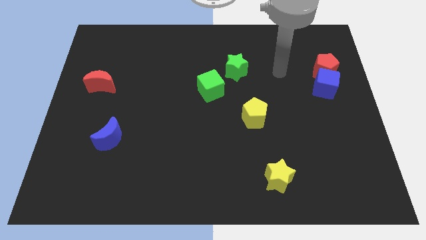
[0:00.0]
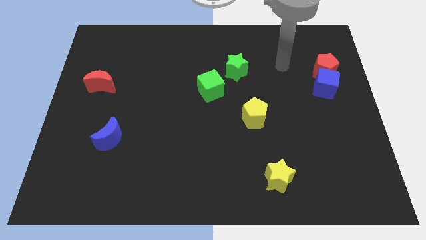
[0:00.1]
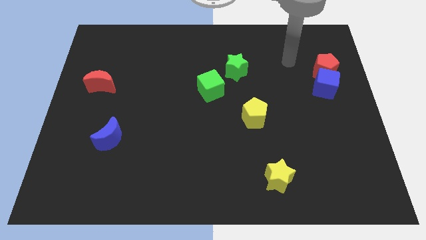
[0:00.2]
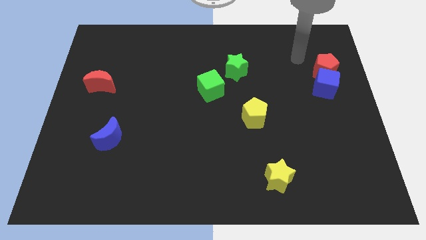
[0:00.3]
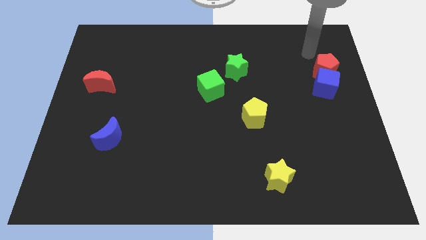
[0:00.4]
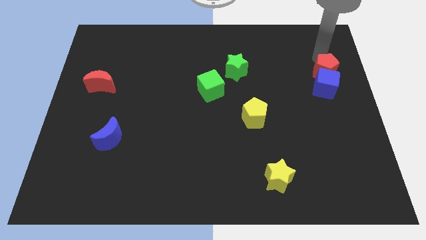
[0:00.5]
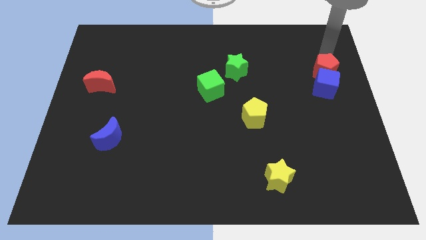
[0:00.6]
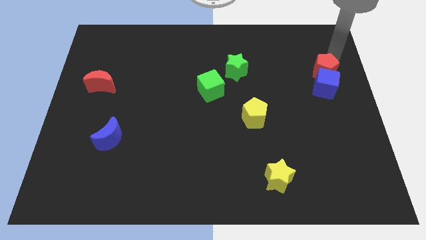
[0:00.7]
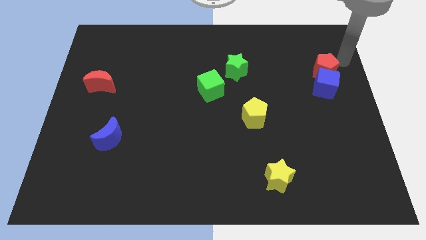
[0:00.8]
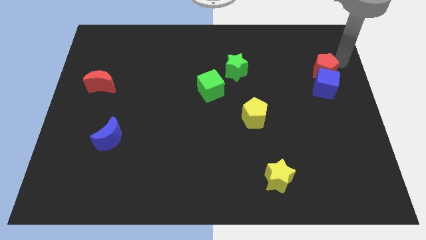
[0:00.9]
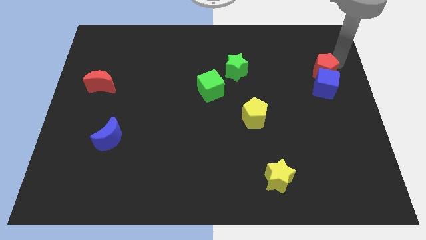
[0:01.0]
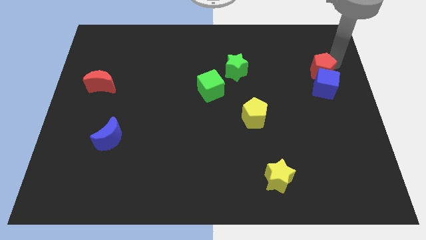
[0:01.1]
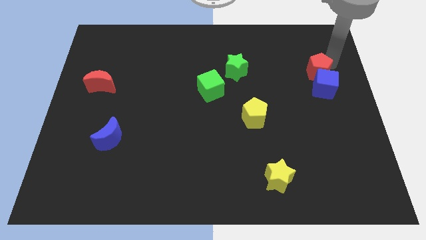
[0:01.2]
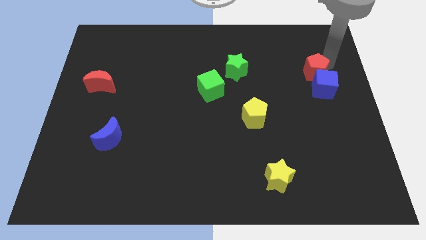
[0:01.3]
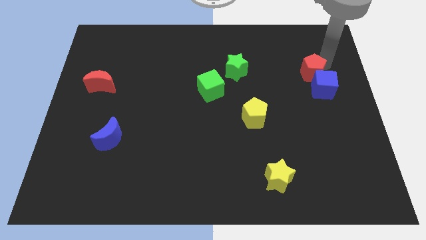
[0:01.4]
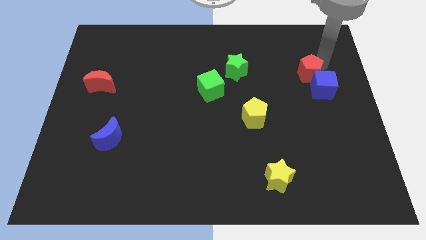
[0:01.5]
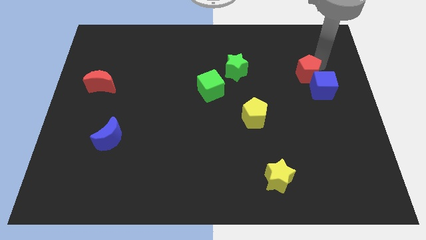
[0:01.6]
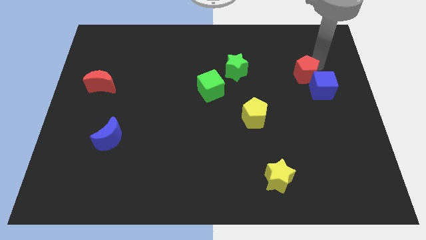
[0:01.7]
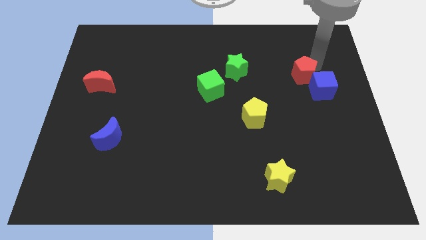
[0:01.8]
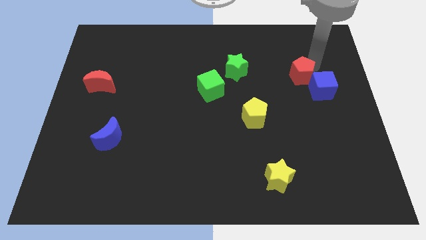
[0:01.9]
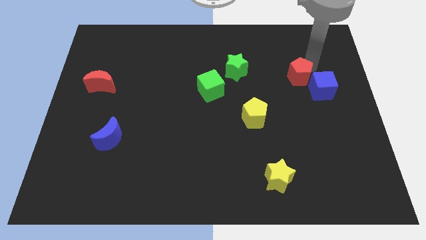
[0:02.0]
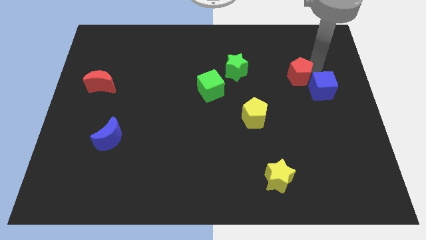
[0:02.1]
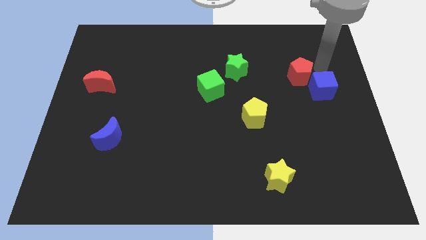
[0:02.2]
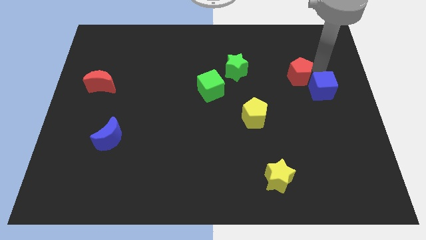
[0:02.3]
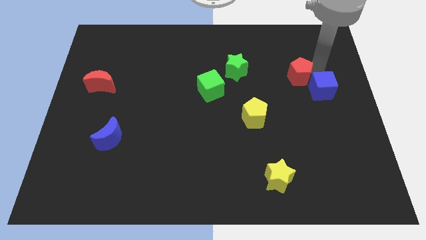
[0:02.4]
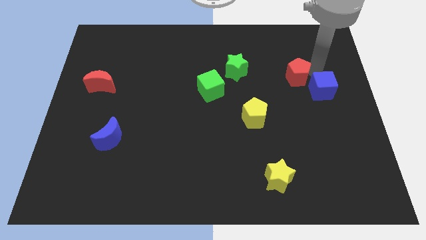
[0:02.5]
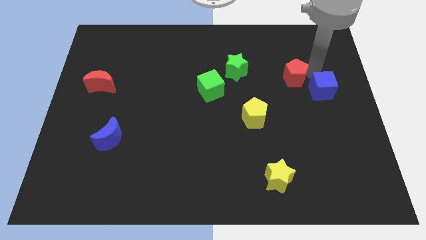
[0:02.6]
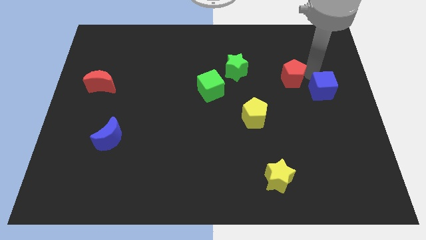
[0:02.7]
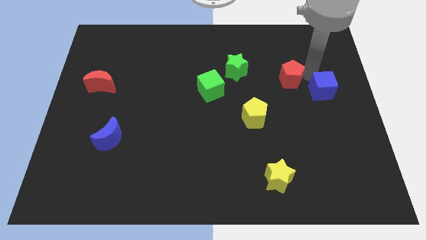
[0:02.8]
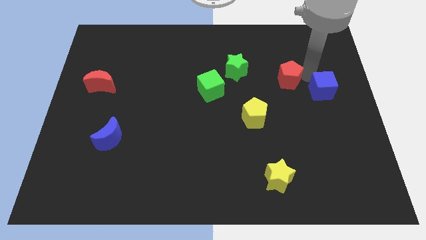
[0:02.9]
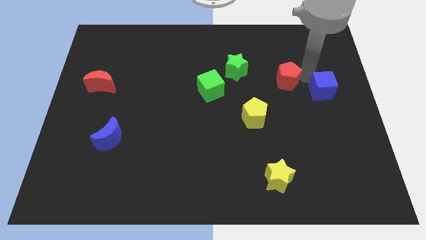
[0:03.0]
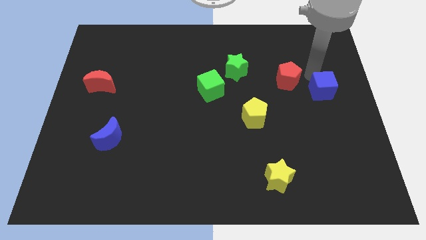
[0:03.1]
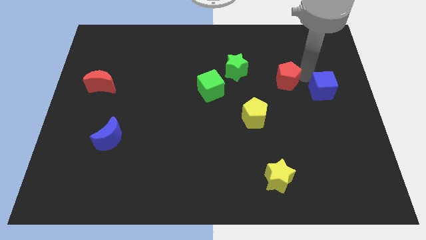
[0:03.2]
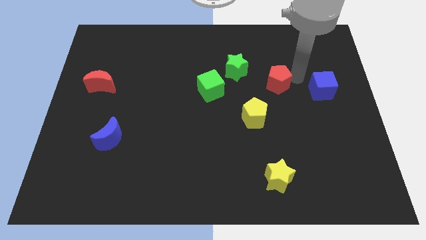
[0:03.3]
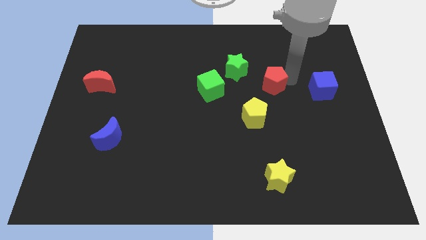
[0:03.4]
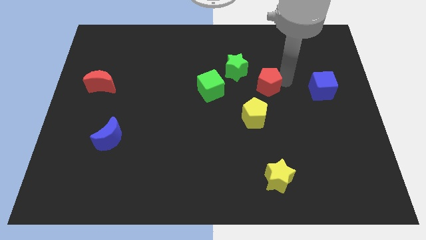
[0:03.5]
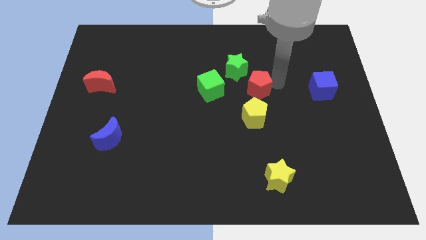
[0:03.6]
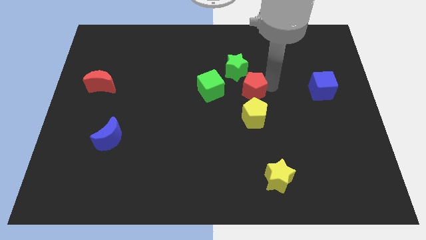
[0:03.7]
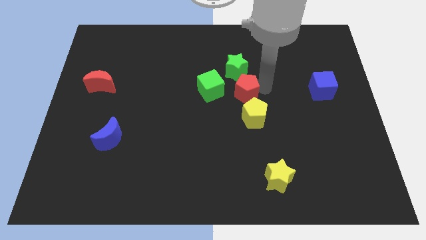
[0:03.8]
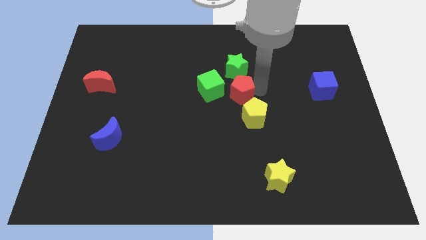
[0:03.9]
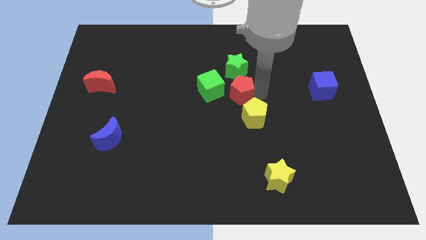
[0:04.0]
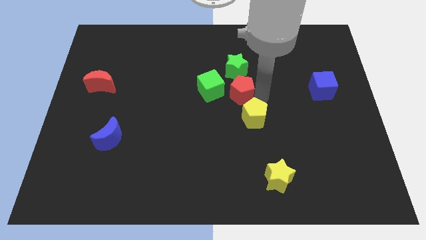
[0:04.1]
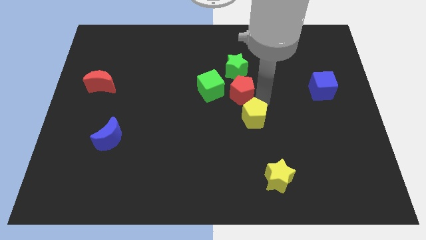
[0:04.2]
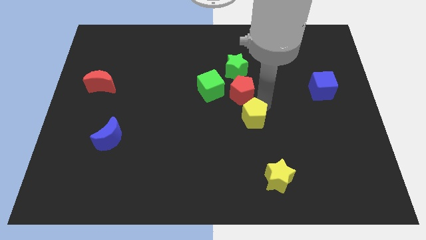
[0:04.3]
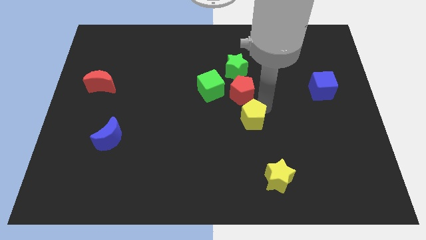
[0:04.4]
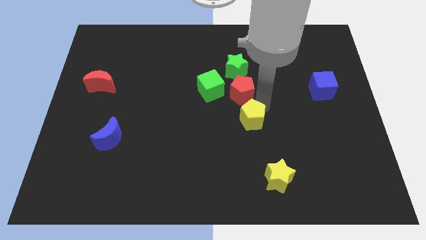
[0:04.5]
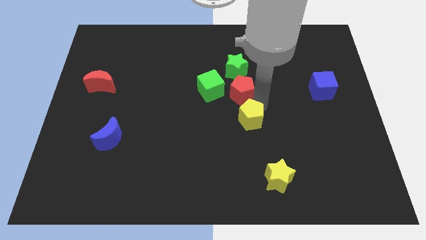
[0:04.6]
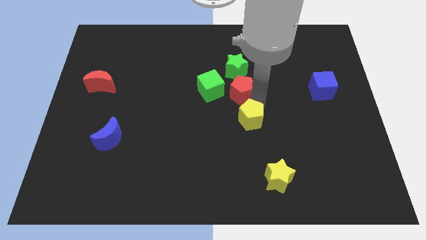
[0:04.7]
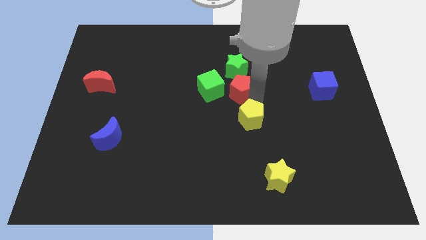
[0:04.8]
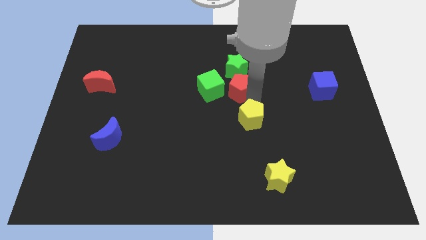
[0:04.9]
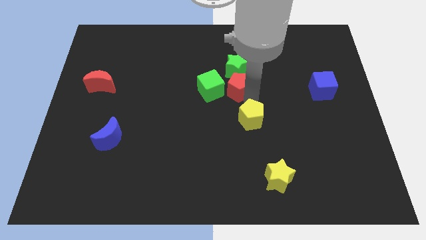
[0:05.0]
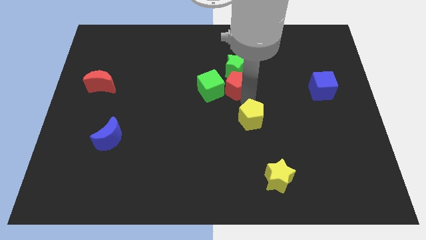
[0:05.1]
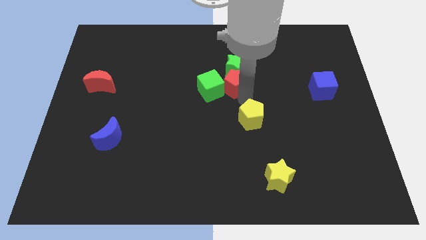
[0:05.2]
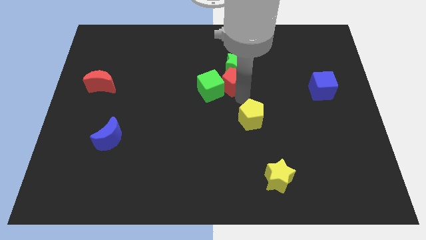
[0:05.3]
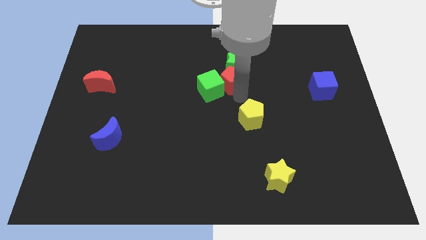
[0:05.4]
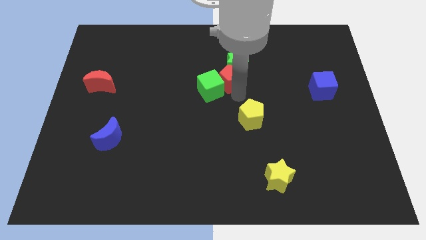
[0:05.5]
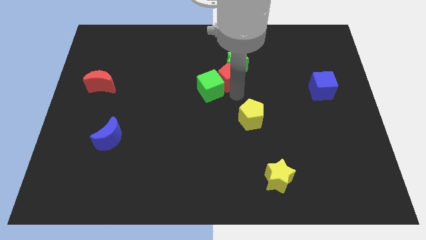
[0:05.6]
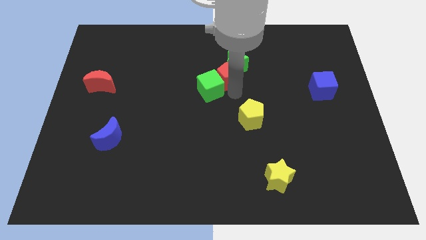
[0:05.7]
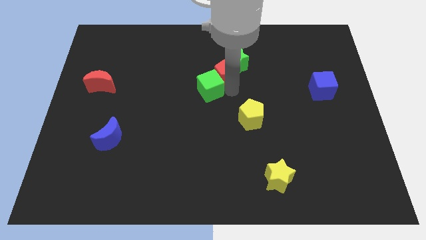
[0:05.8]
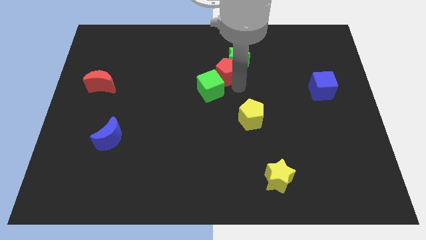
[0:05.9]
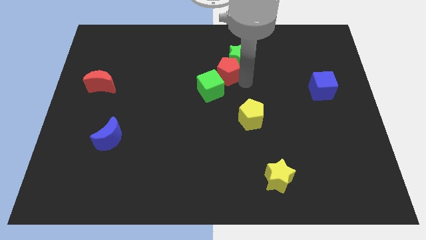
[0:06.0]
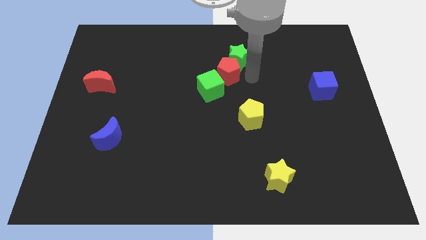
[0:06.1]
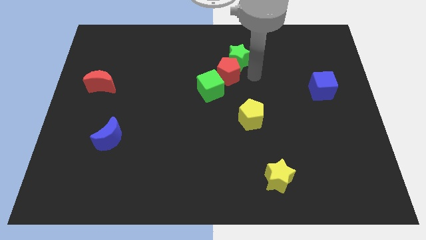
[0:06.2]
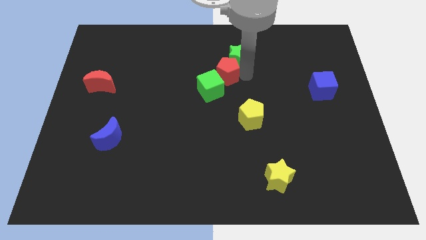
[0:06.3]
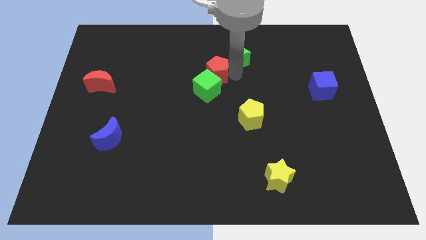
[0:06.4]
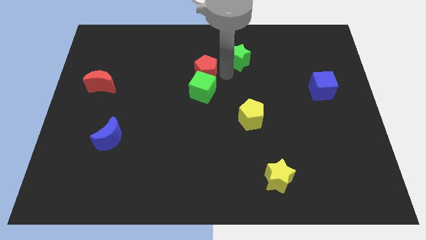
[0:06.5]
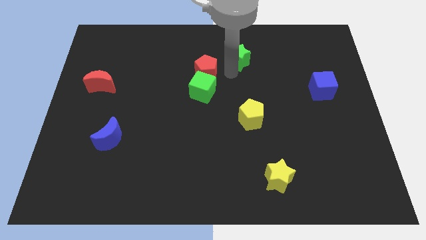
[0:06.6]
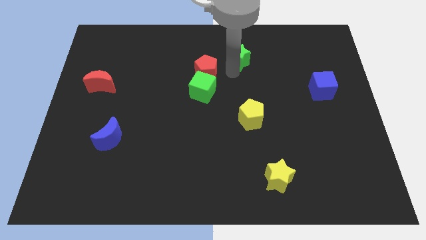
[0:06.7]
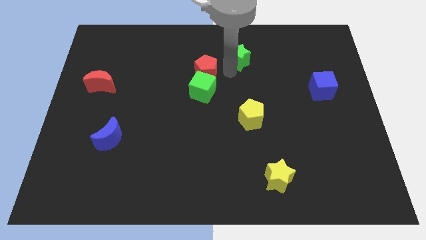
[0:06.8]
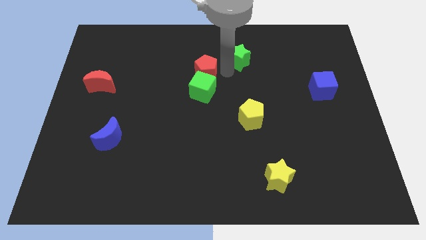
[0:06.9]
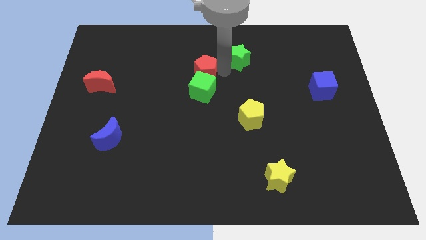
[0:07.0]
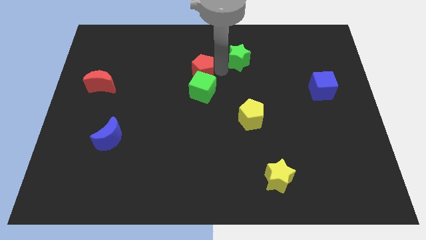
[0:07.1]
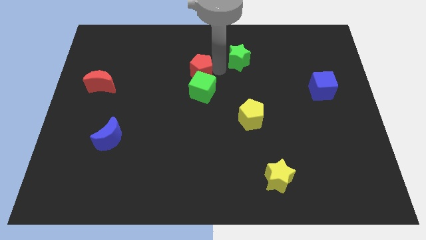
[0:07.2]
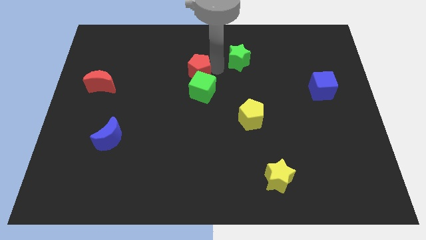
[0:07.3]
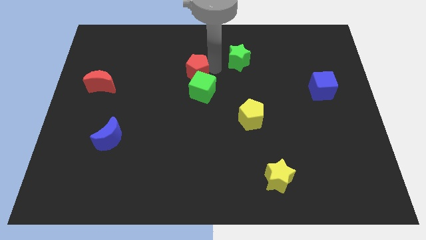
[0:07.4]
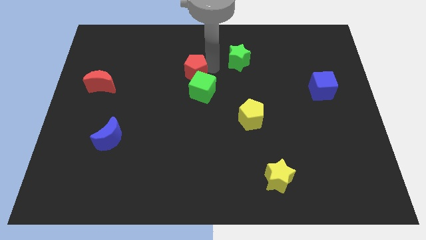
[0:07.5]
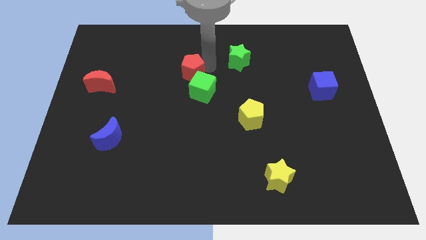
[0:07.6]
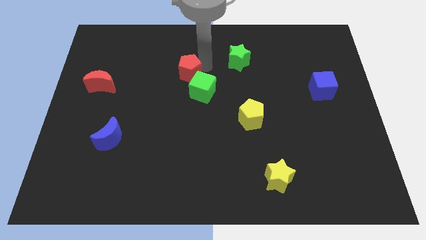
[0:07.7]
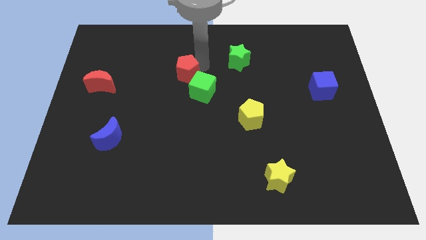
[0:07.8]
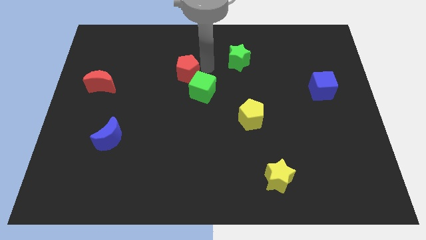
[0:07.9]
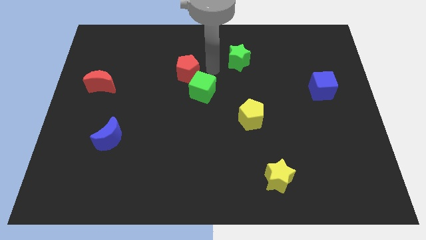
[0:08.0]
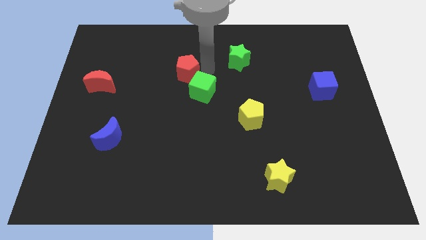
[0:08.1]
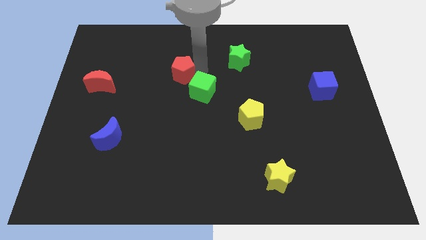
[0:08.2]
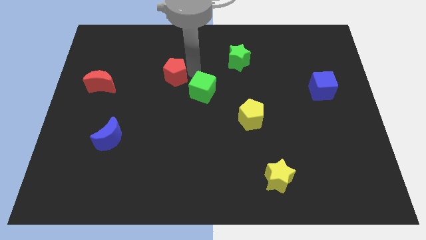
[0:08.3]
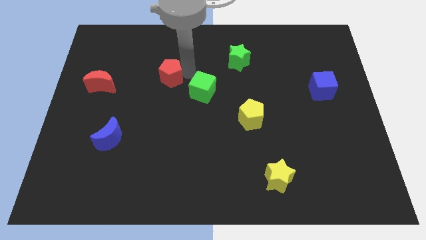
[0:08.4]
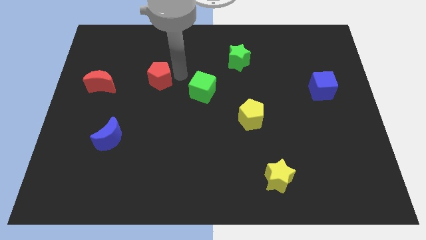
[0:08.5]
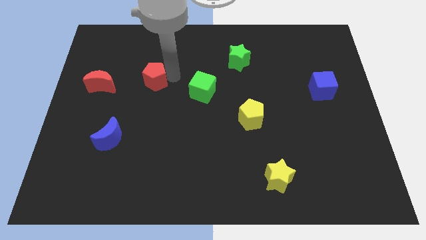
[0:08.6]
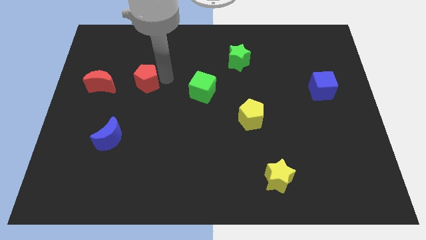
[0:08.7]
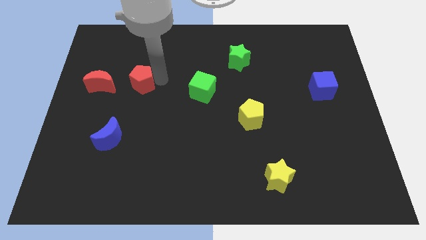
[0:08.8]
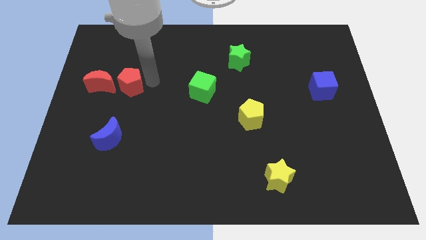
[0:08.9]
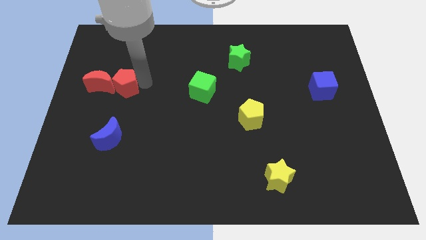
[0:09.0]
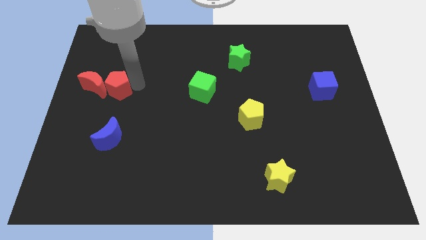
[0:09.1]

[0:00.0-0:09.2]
push the red pentagon close to the red moon
